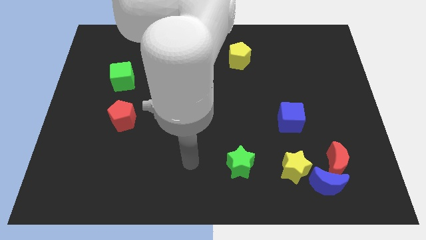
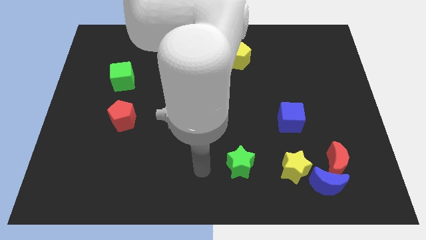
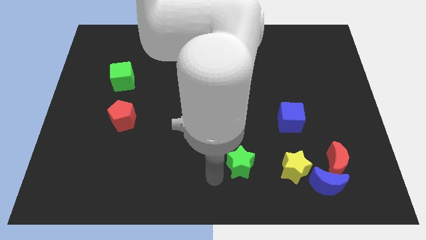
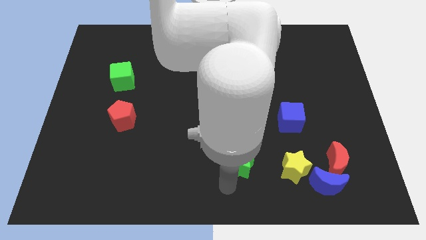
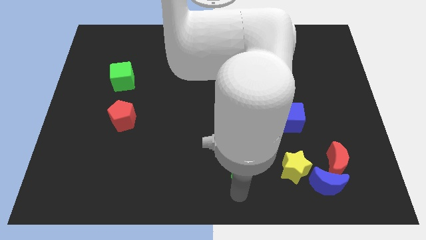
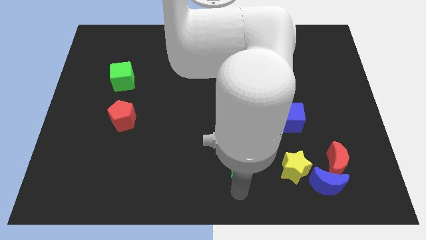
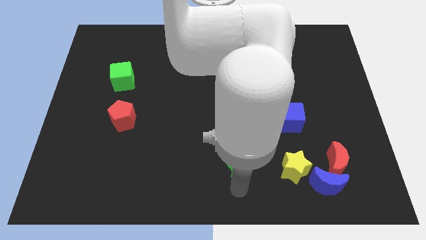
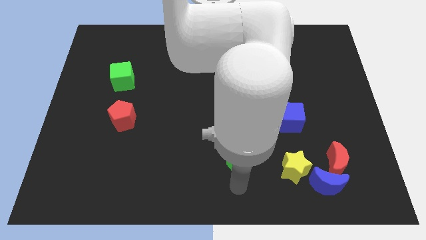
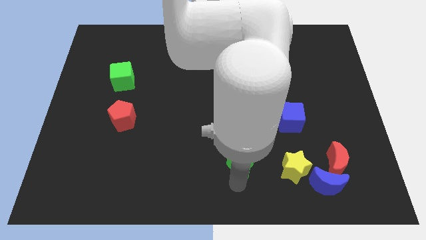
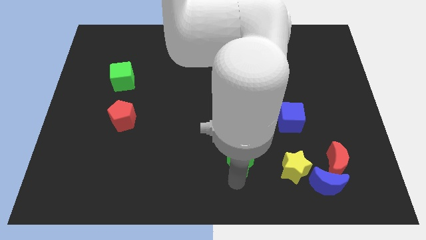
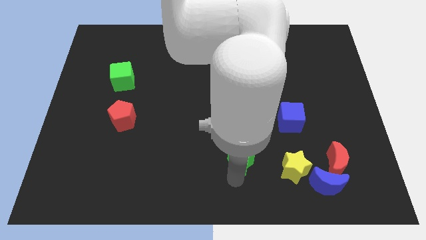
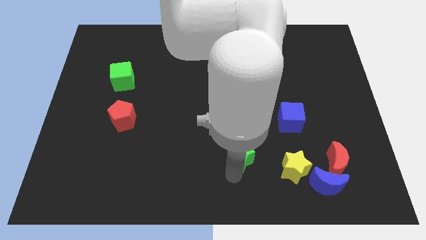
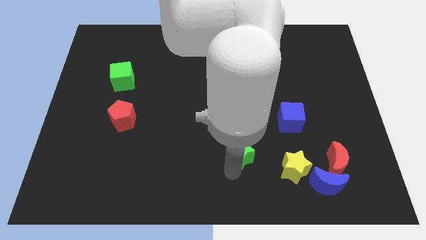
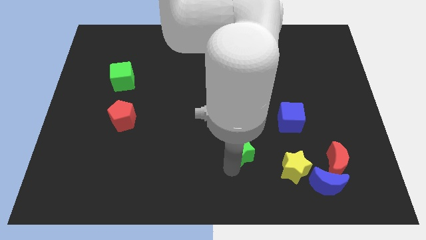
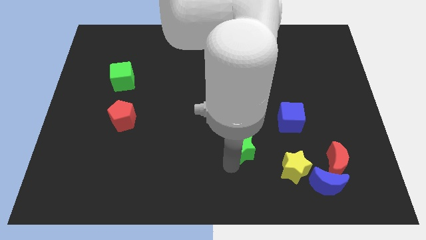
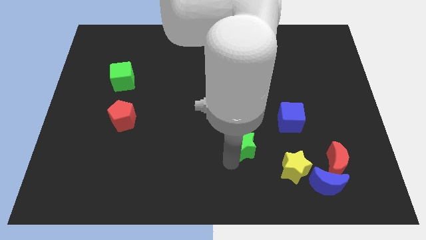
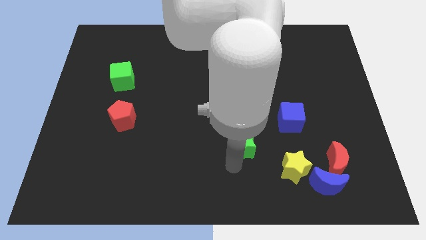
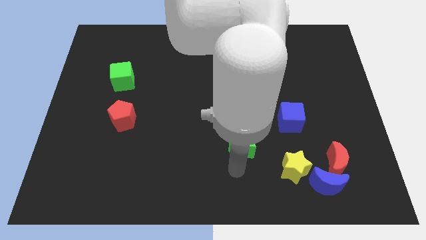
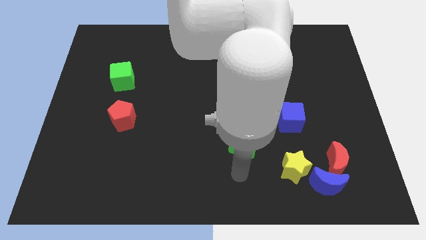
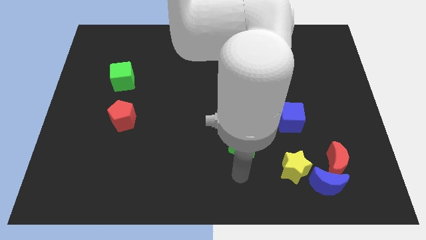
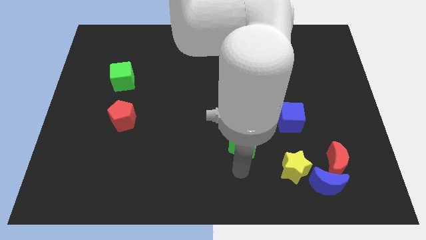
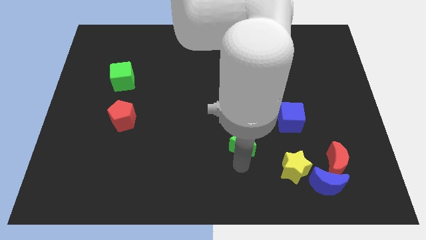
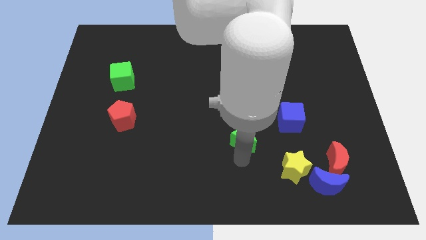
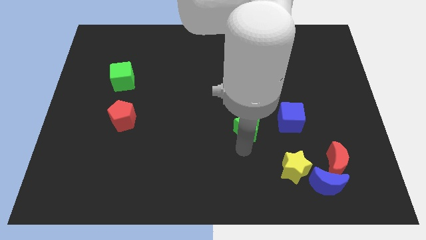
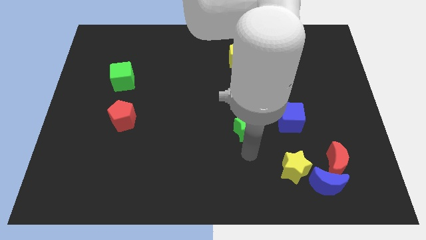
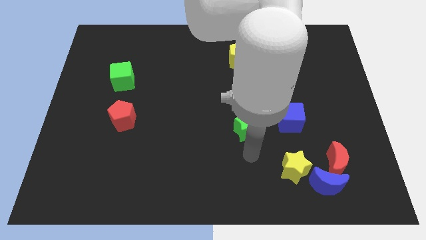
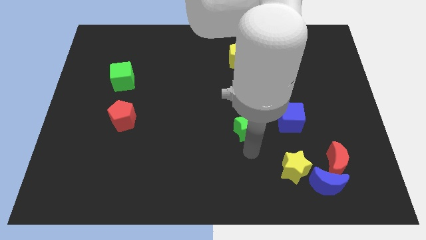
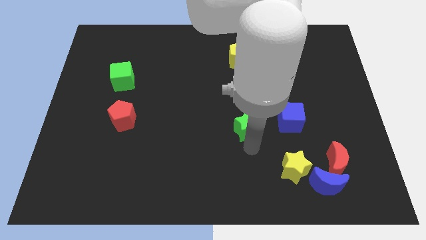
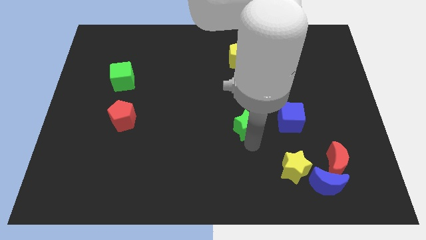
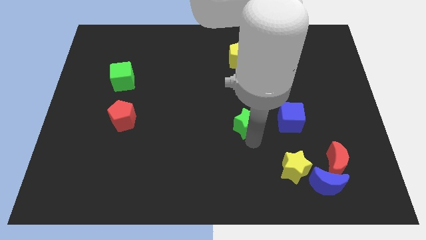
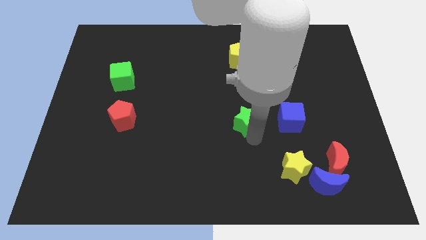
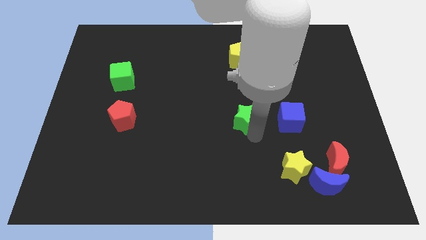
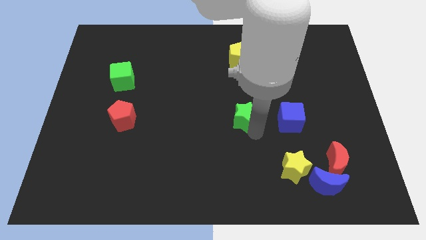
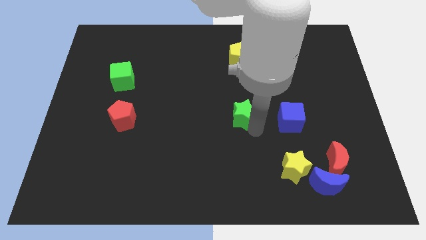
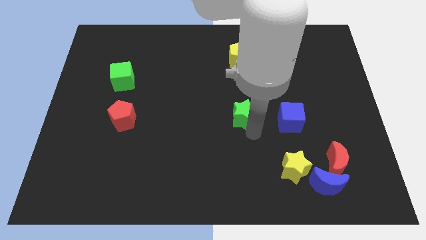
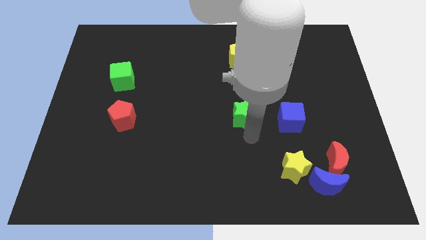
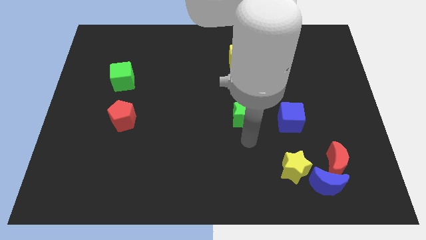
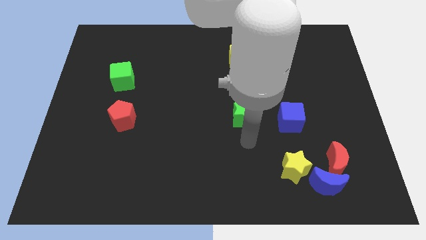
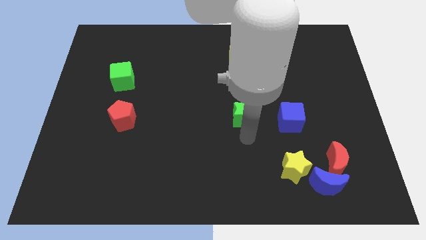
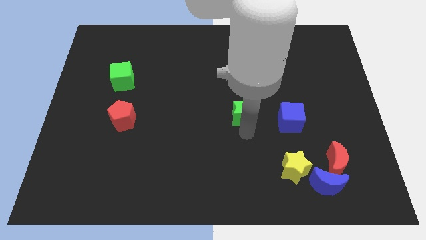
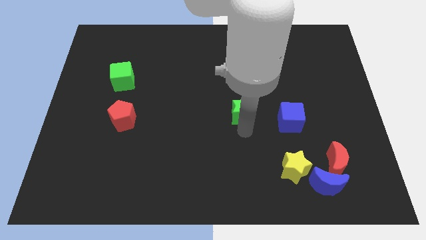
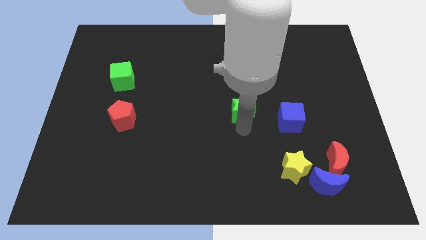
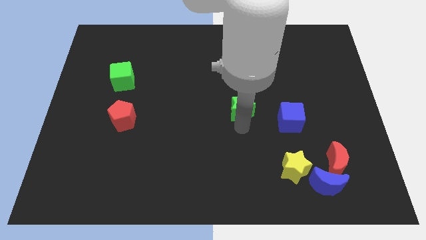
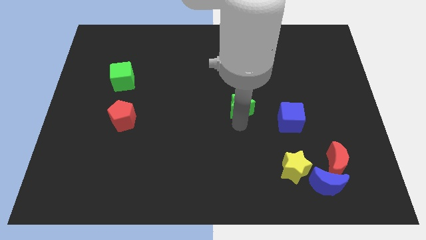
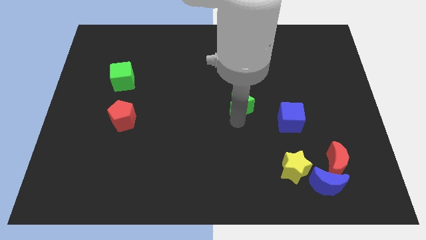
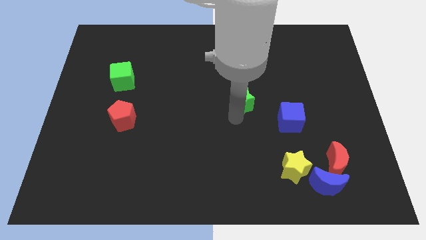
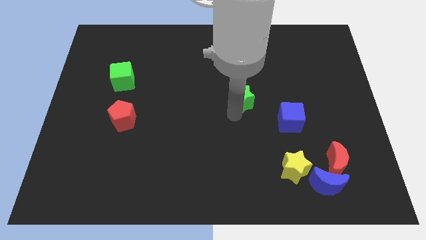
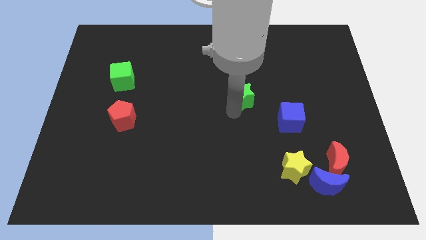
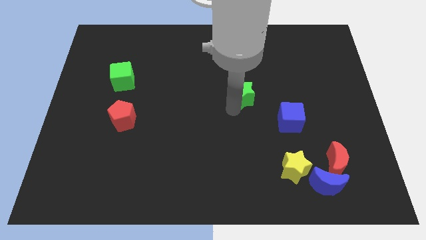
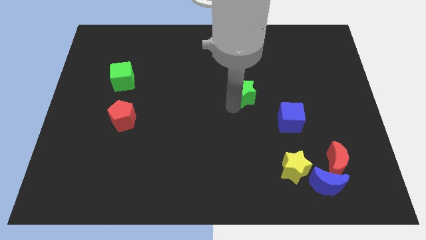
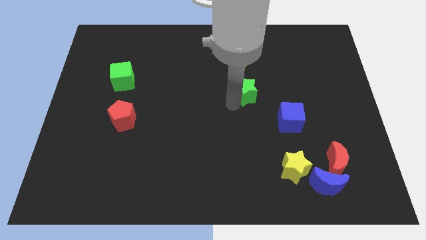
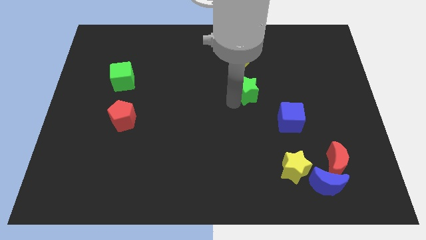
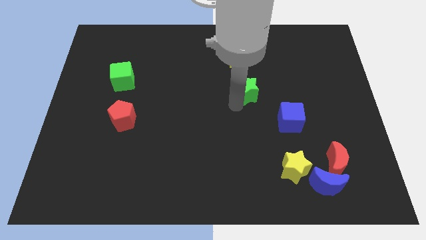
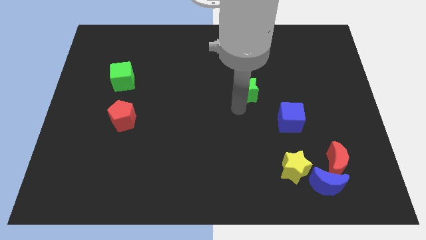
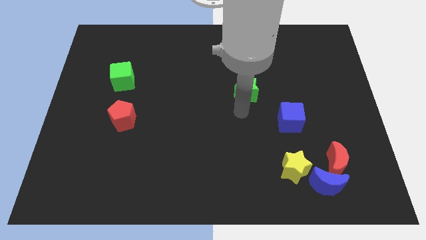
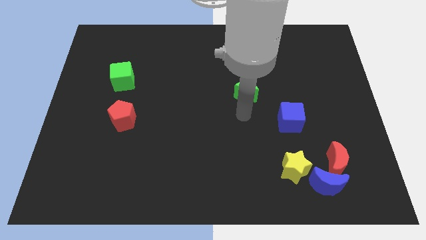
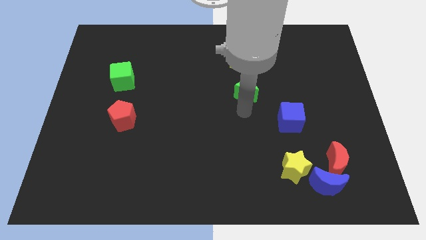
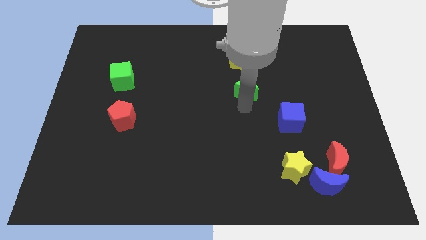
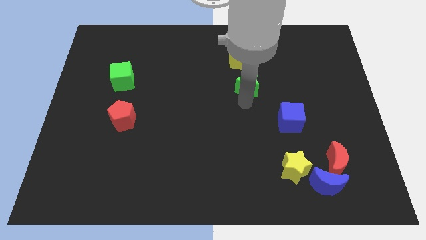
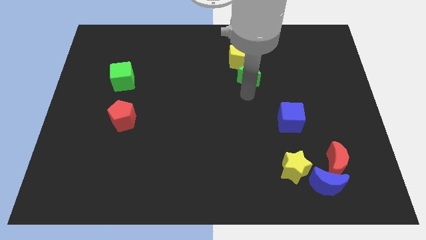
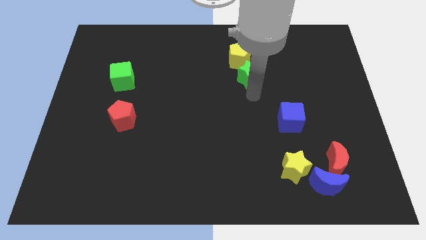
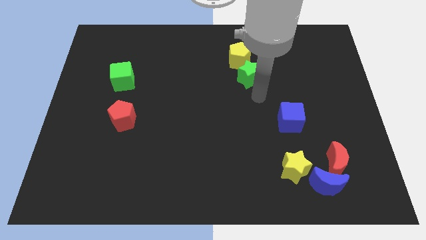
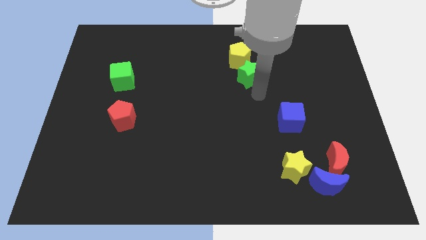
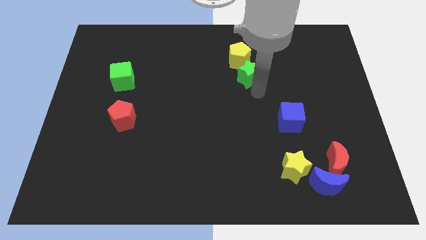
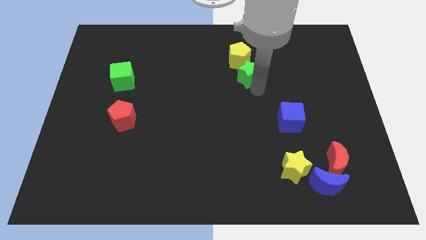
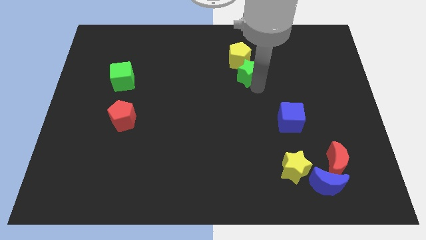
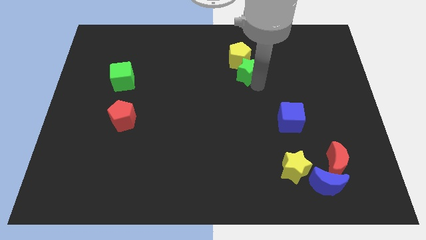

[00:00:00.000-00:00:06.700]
slide the green star to the yellow pentagon
